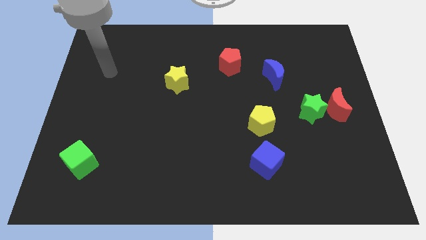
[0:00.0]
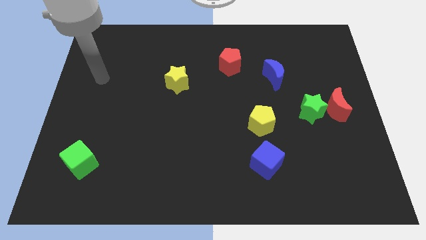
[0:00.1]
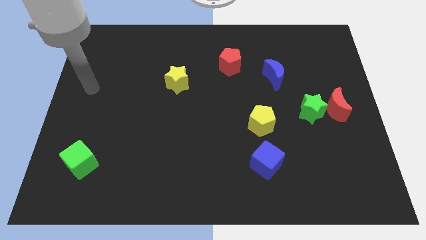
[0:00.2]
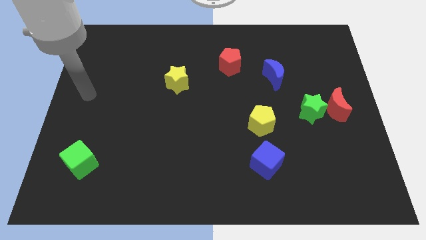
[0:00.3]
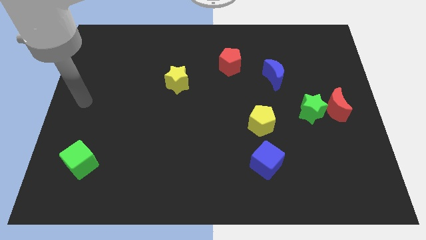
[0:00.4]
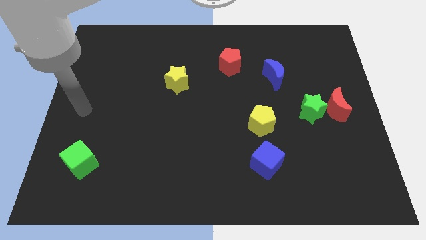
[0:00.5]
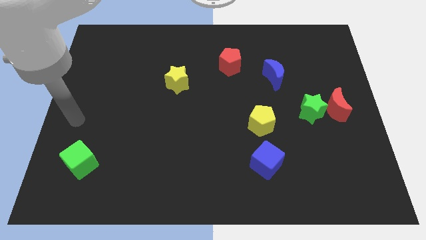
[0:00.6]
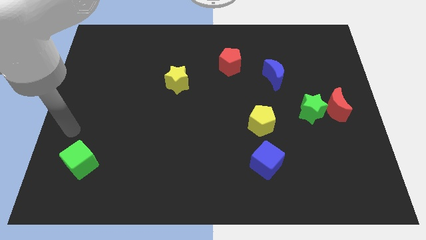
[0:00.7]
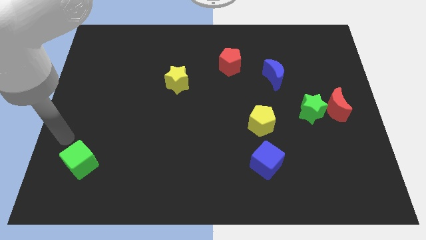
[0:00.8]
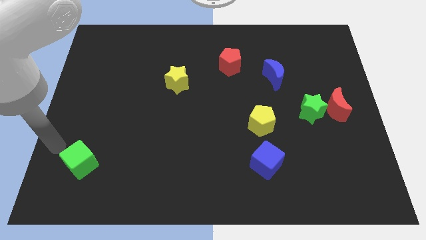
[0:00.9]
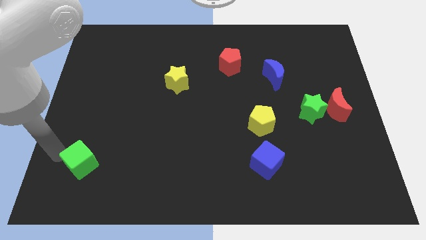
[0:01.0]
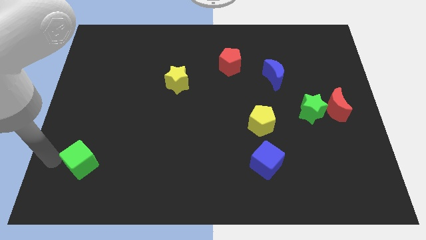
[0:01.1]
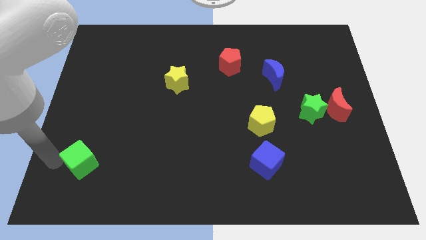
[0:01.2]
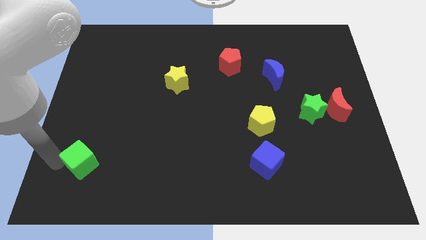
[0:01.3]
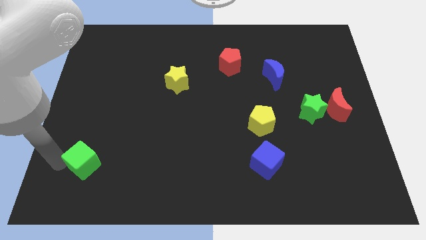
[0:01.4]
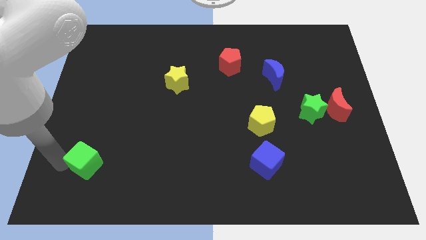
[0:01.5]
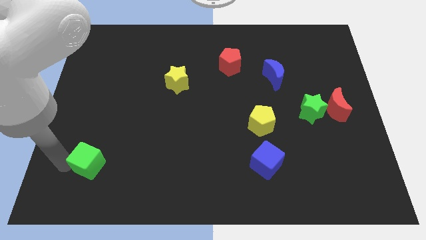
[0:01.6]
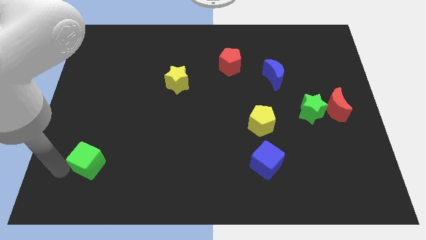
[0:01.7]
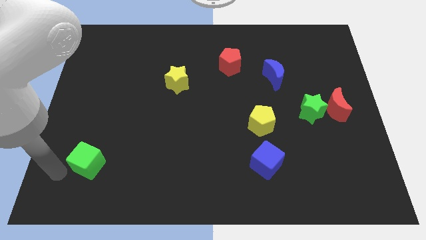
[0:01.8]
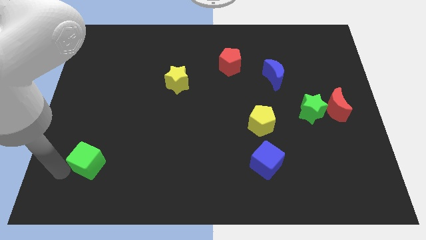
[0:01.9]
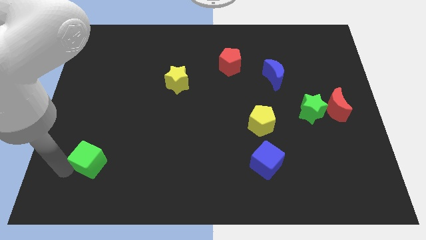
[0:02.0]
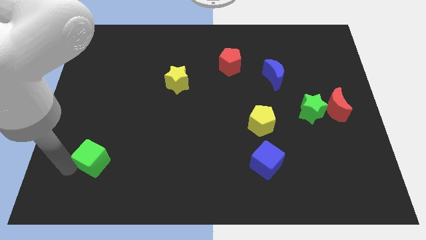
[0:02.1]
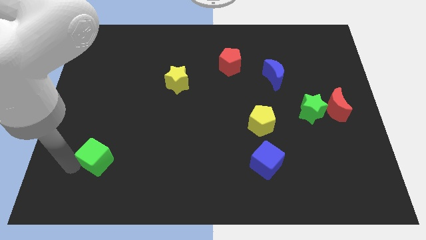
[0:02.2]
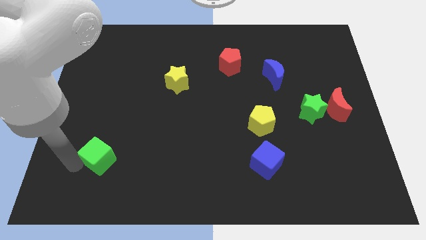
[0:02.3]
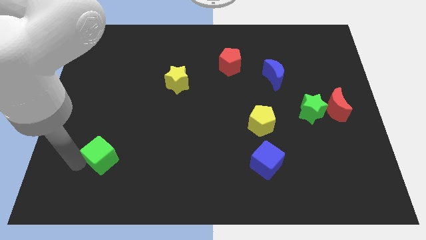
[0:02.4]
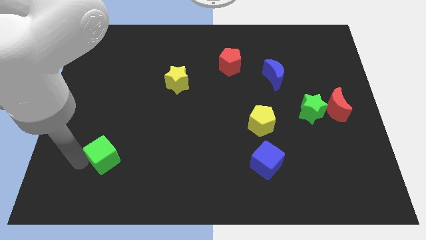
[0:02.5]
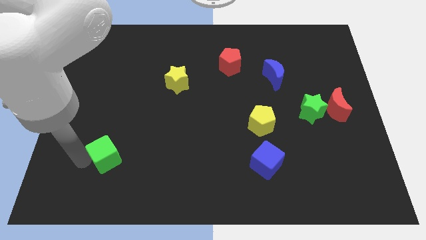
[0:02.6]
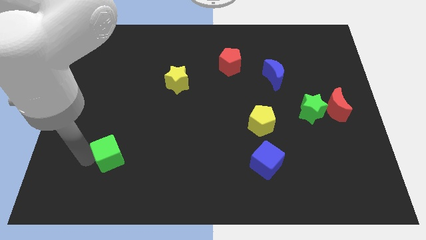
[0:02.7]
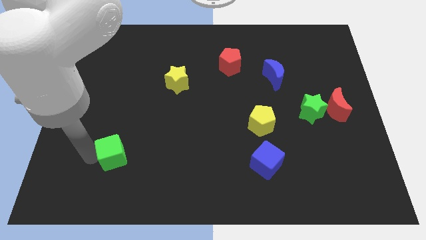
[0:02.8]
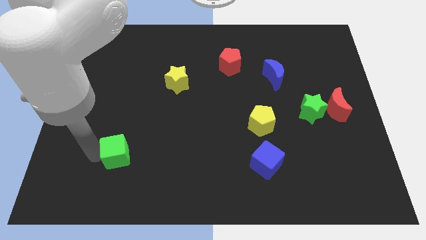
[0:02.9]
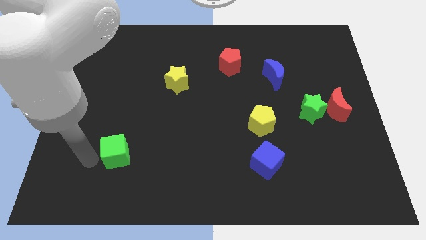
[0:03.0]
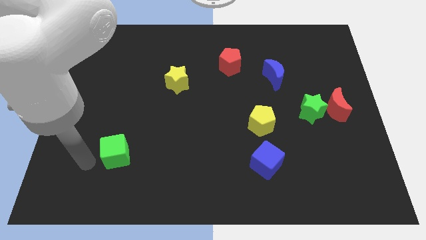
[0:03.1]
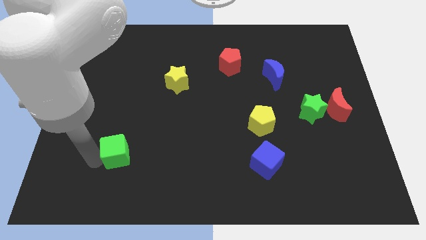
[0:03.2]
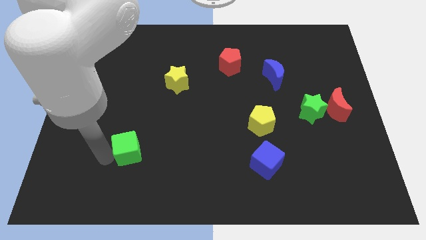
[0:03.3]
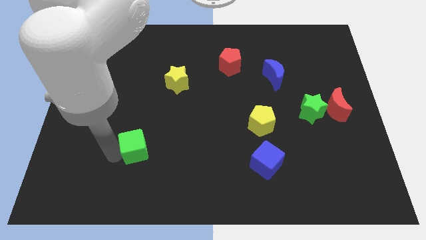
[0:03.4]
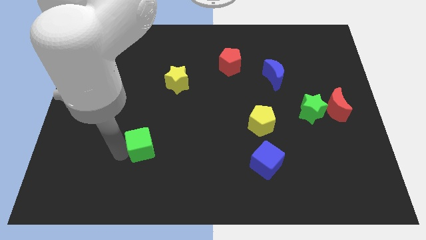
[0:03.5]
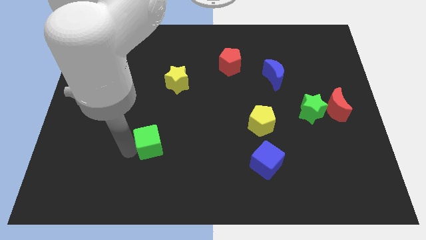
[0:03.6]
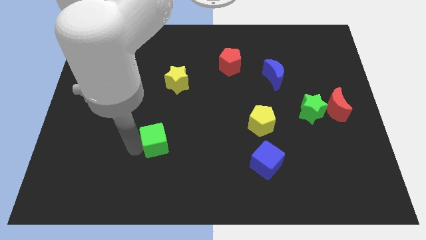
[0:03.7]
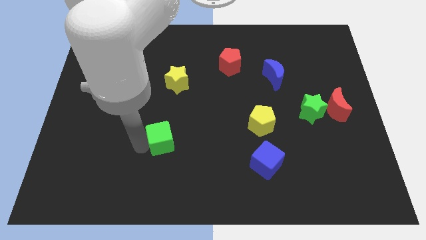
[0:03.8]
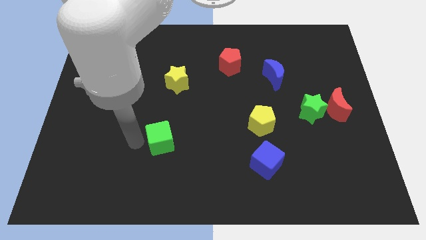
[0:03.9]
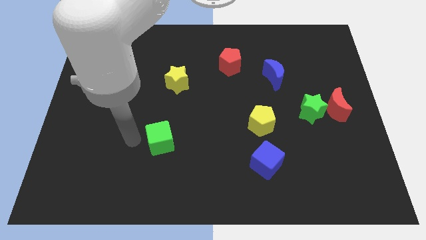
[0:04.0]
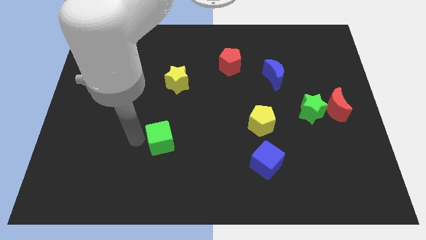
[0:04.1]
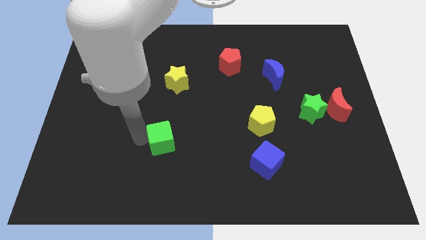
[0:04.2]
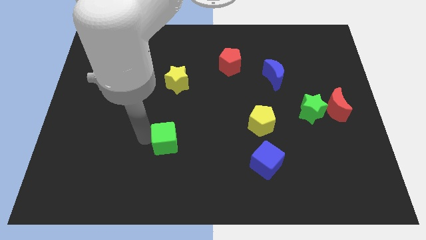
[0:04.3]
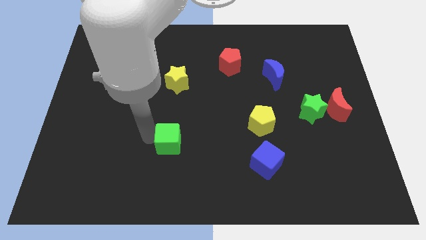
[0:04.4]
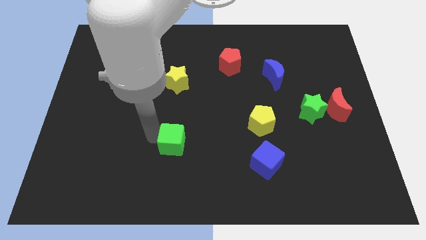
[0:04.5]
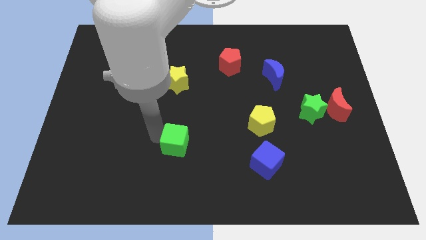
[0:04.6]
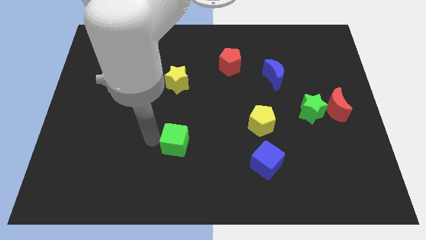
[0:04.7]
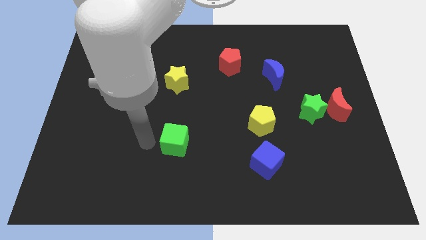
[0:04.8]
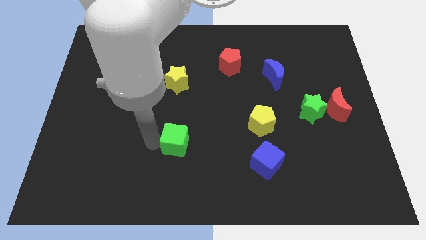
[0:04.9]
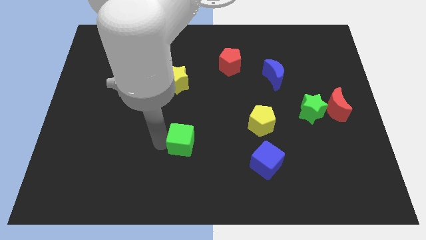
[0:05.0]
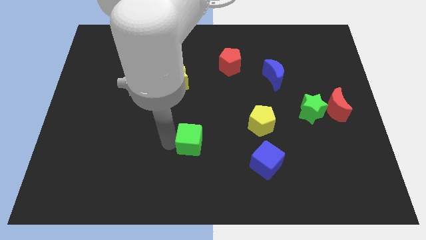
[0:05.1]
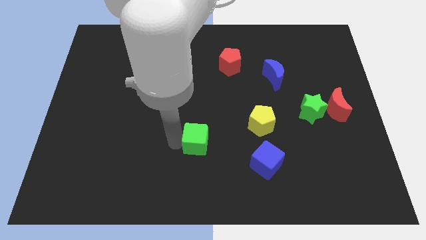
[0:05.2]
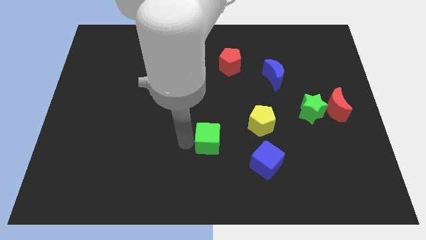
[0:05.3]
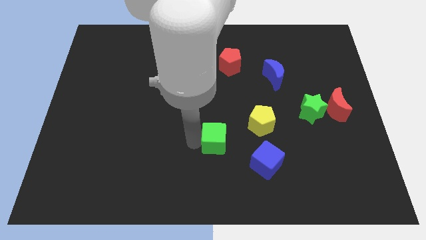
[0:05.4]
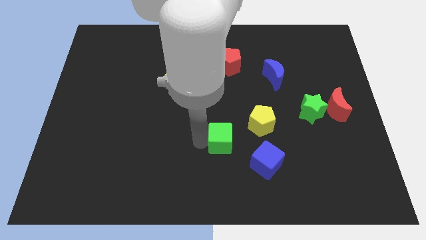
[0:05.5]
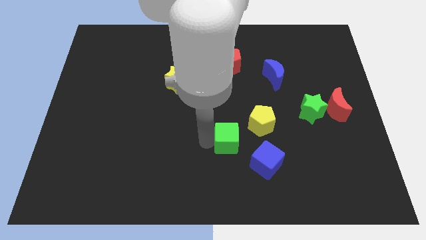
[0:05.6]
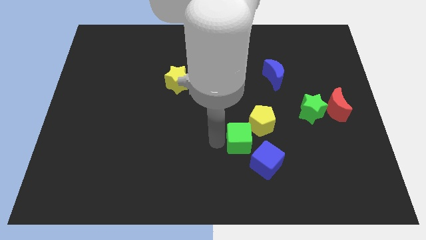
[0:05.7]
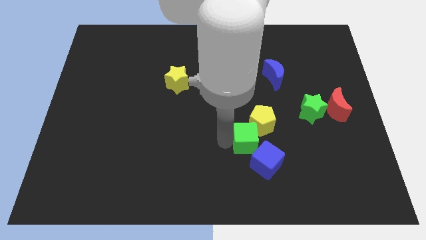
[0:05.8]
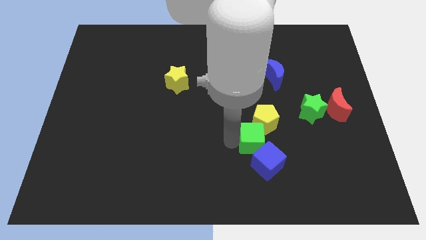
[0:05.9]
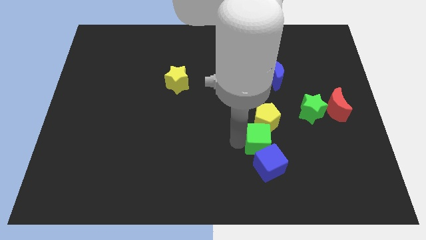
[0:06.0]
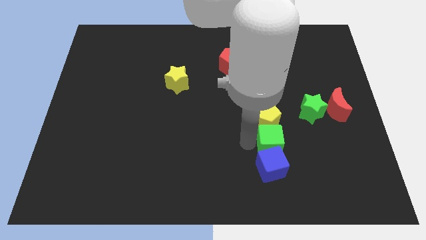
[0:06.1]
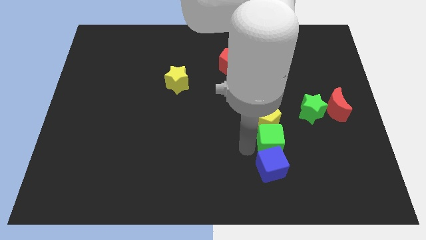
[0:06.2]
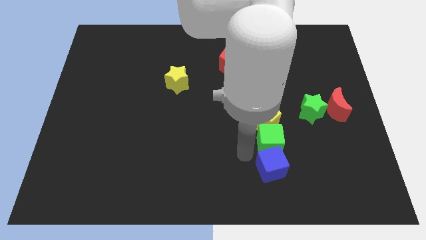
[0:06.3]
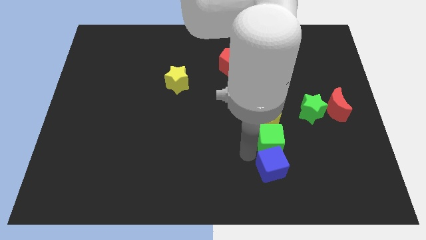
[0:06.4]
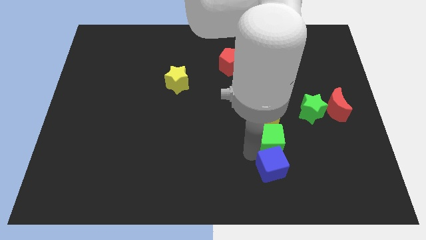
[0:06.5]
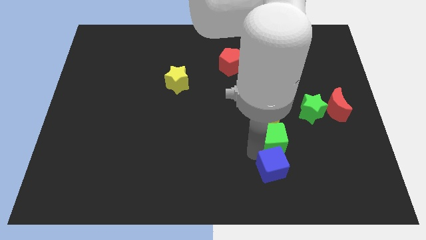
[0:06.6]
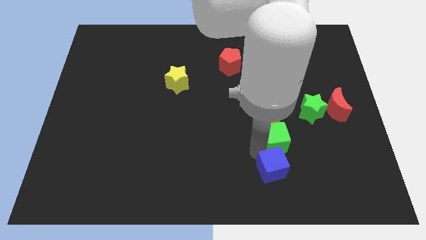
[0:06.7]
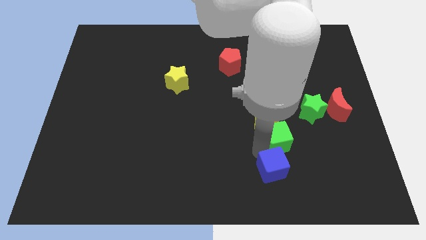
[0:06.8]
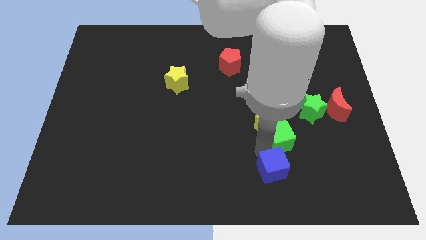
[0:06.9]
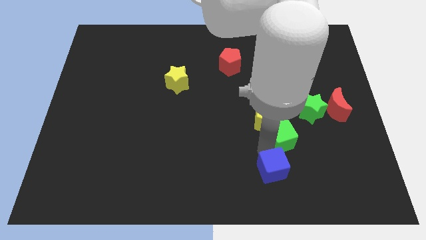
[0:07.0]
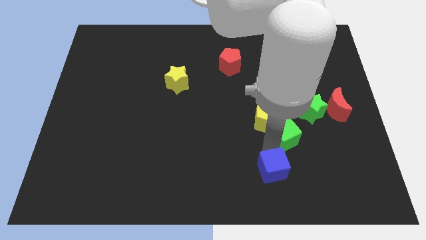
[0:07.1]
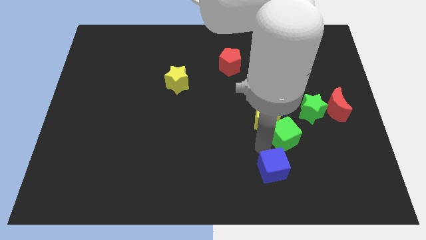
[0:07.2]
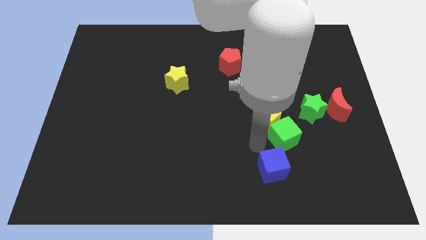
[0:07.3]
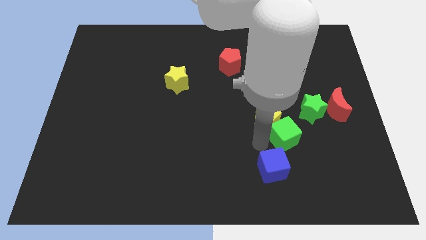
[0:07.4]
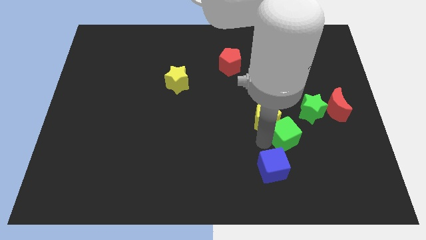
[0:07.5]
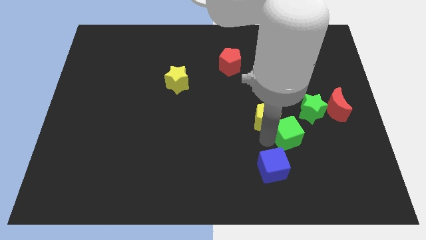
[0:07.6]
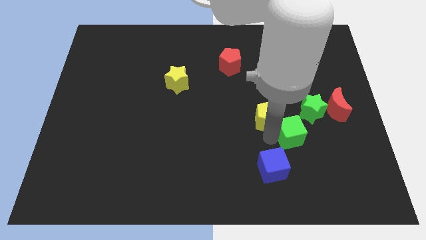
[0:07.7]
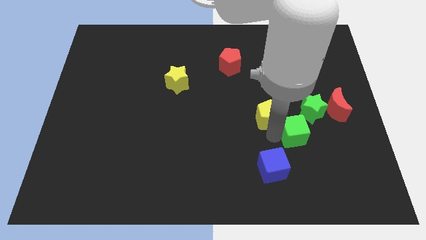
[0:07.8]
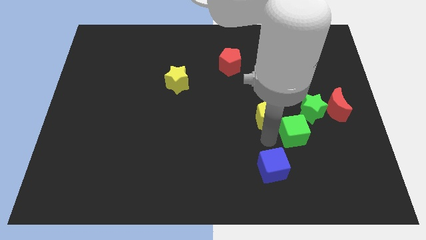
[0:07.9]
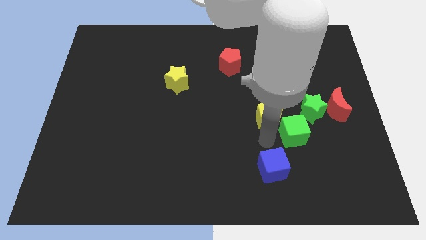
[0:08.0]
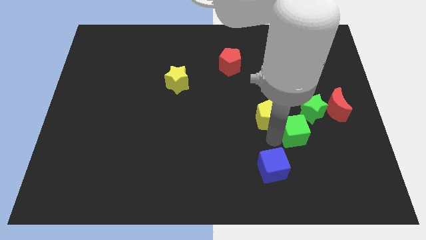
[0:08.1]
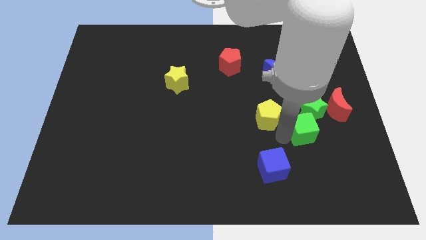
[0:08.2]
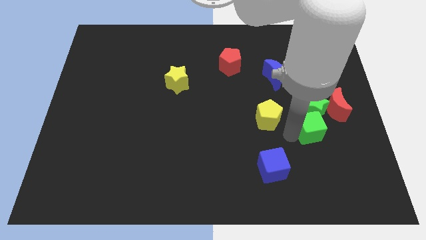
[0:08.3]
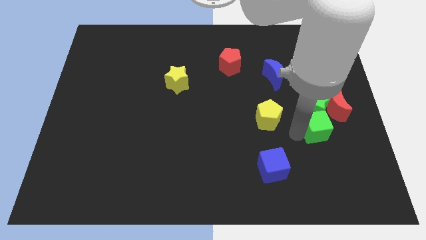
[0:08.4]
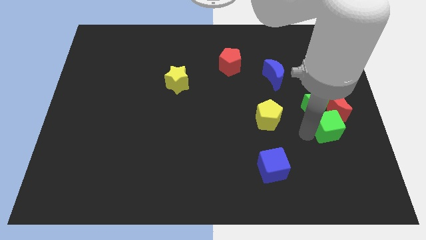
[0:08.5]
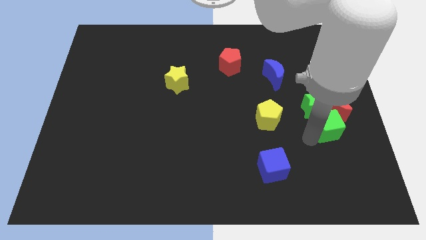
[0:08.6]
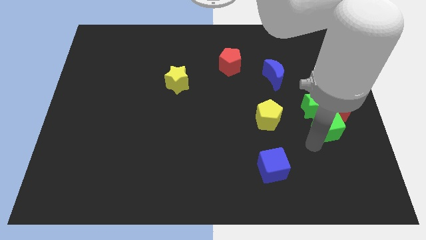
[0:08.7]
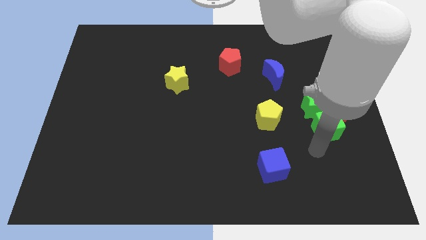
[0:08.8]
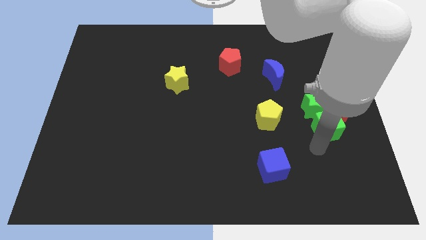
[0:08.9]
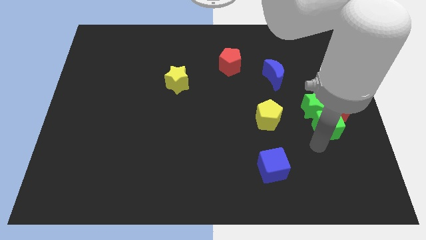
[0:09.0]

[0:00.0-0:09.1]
move the green cube next to the red moon
